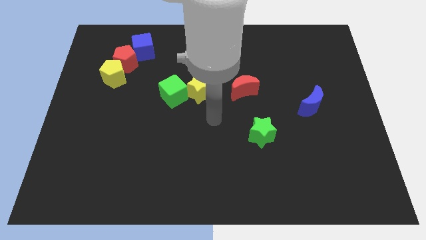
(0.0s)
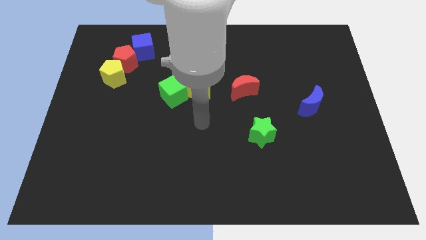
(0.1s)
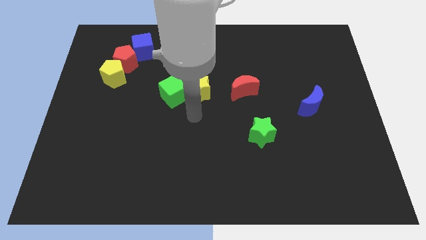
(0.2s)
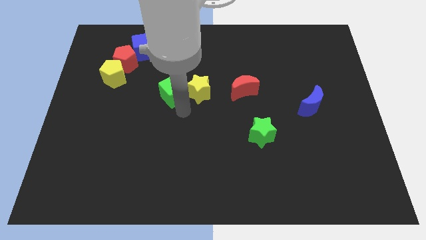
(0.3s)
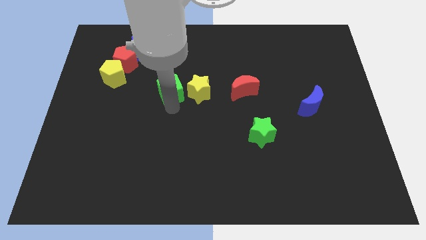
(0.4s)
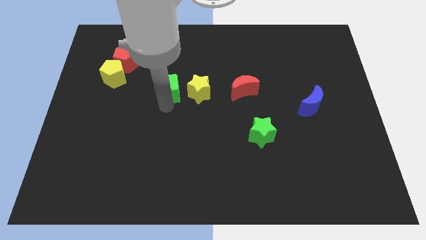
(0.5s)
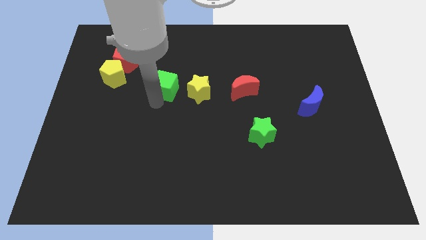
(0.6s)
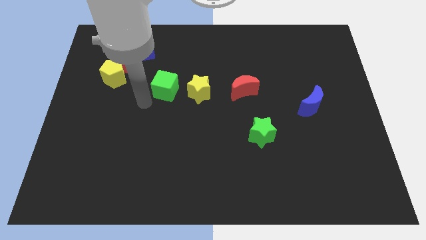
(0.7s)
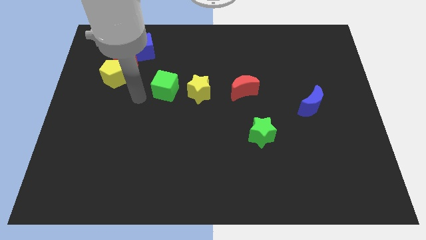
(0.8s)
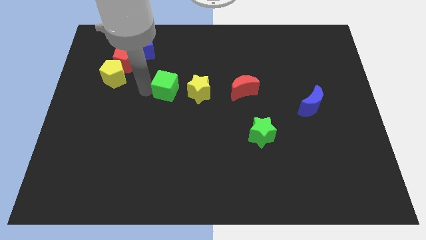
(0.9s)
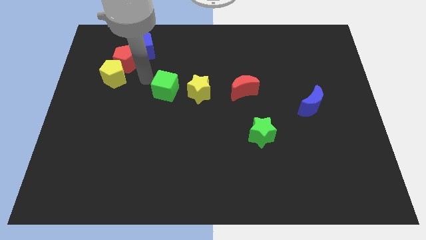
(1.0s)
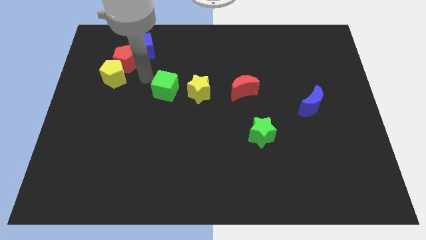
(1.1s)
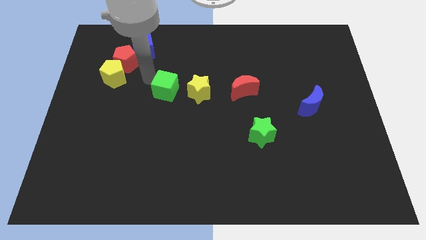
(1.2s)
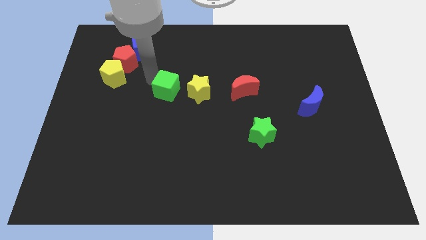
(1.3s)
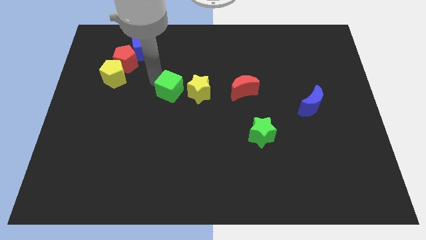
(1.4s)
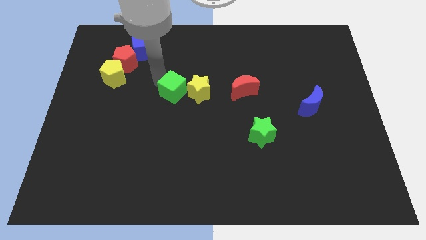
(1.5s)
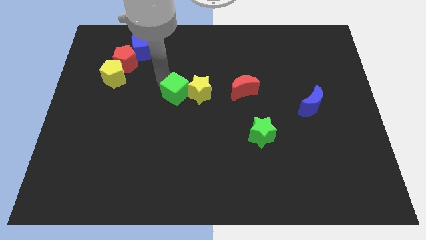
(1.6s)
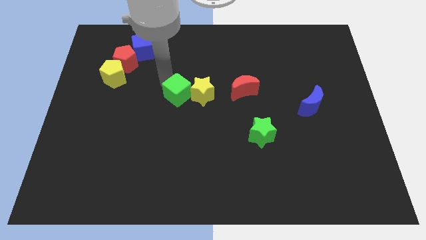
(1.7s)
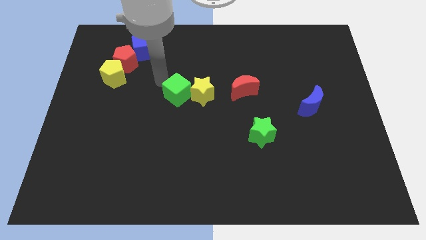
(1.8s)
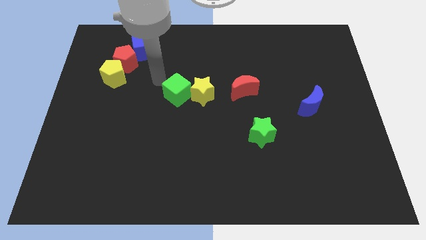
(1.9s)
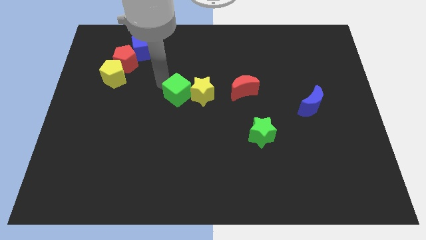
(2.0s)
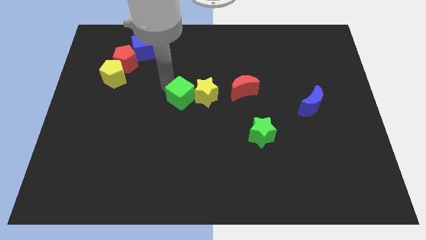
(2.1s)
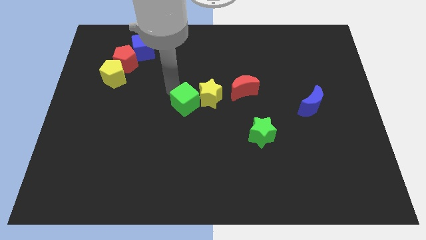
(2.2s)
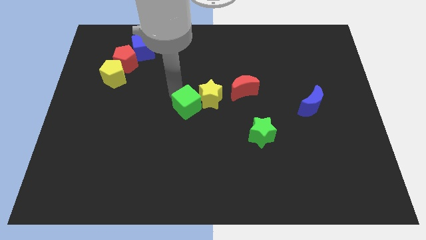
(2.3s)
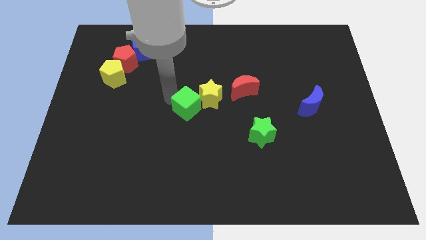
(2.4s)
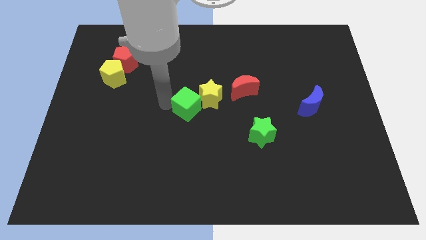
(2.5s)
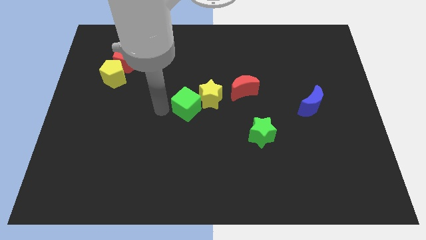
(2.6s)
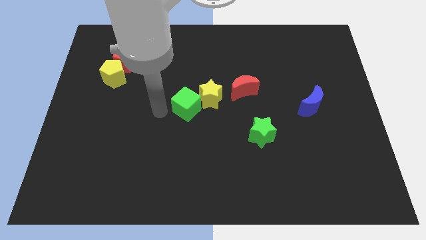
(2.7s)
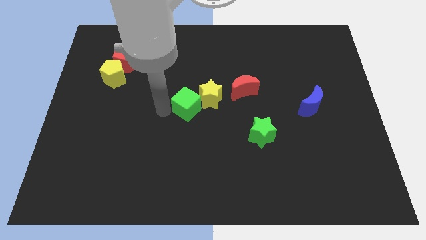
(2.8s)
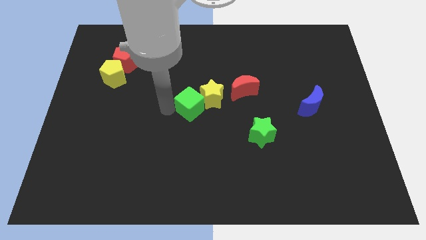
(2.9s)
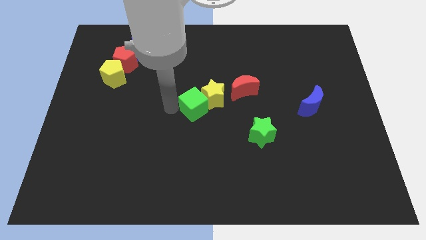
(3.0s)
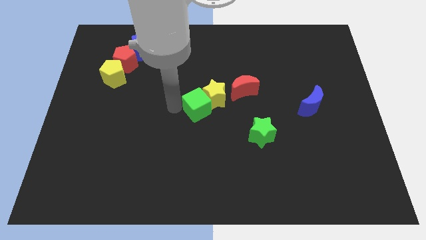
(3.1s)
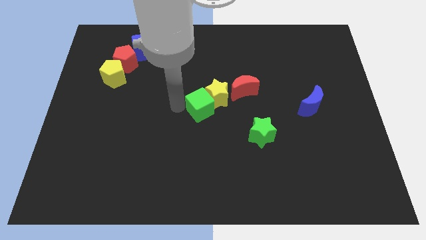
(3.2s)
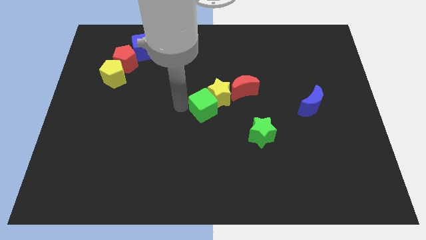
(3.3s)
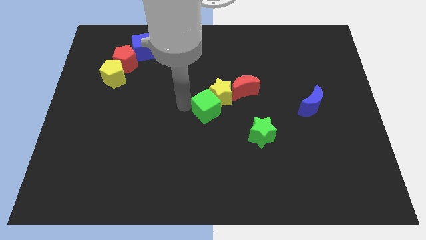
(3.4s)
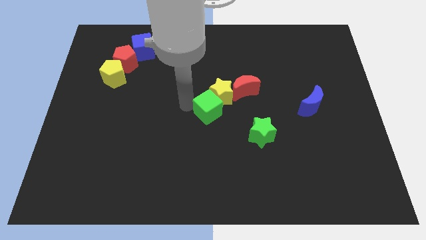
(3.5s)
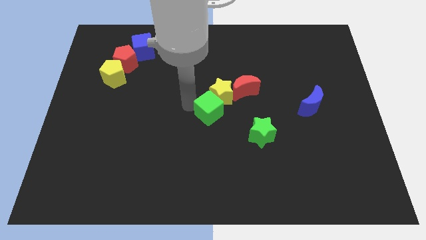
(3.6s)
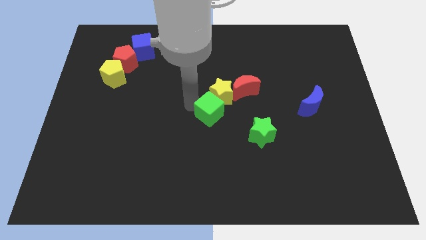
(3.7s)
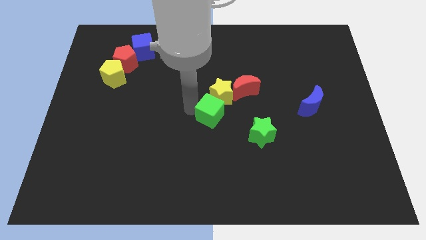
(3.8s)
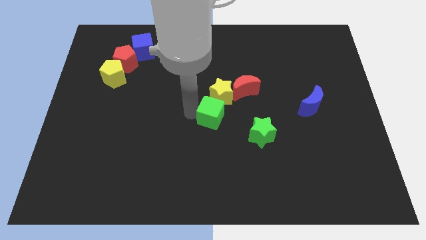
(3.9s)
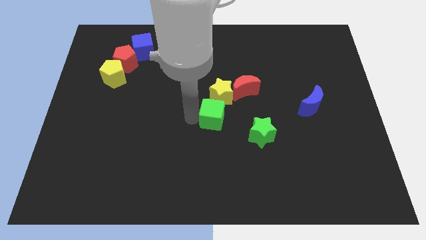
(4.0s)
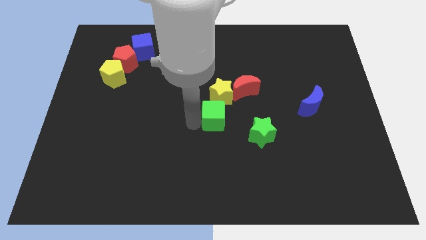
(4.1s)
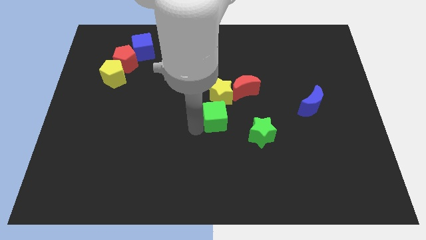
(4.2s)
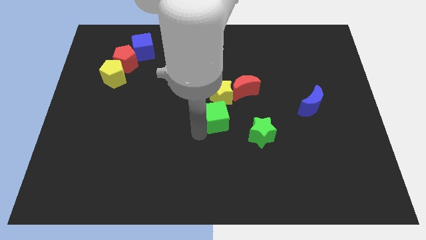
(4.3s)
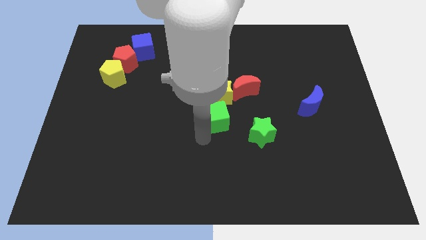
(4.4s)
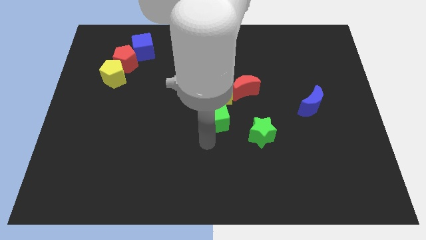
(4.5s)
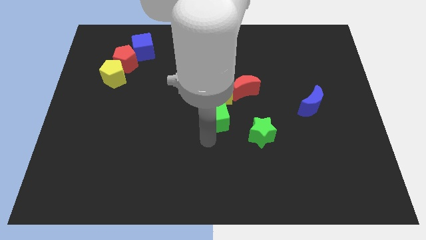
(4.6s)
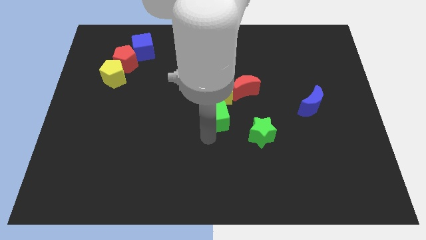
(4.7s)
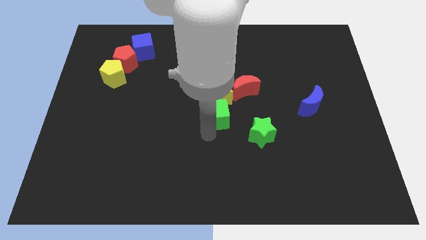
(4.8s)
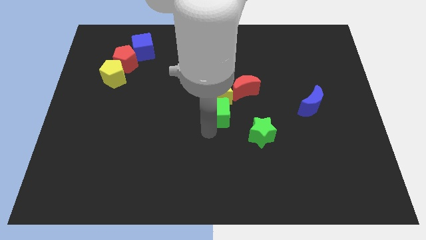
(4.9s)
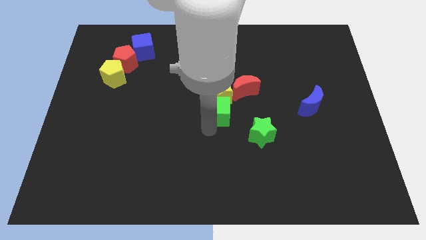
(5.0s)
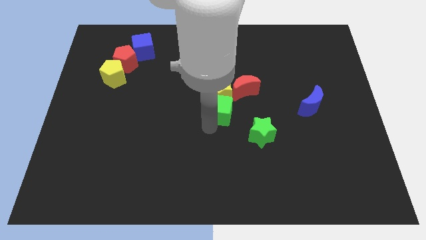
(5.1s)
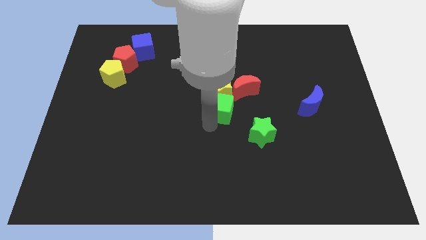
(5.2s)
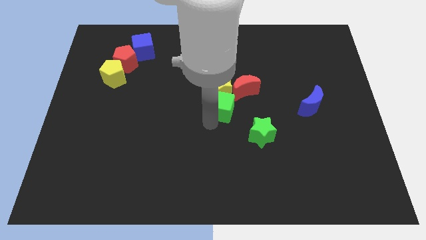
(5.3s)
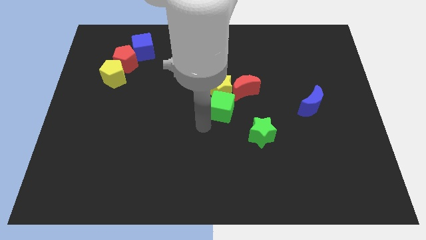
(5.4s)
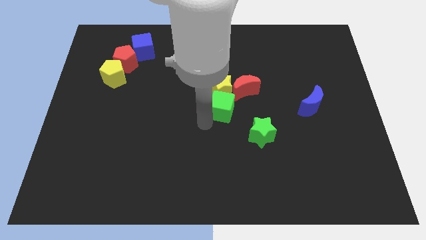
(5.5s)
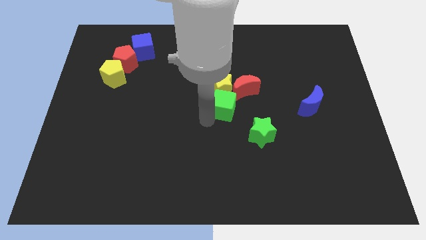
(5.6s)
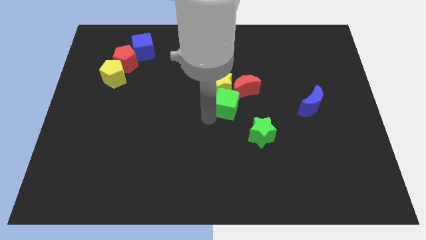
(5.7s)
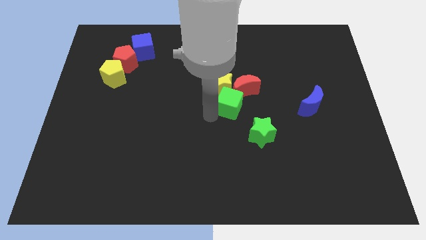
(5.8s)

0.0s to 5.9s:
push the green cube to the red moon

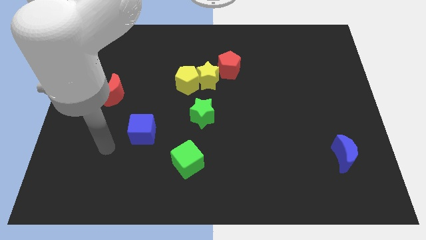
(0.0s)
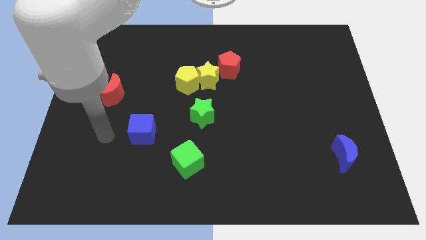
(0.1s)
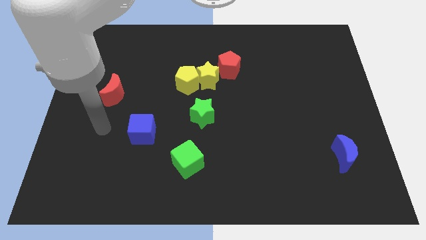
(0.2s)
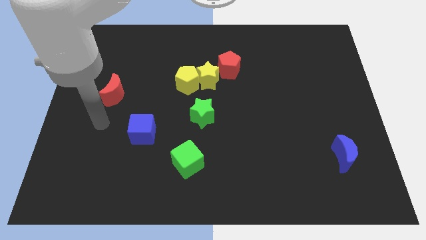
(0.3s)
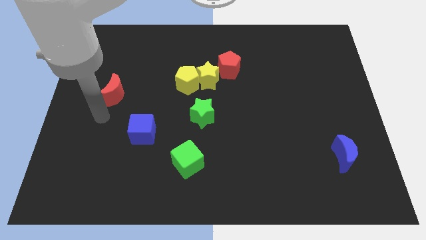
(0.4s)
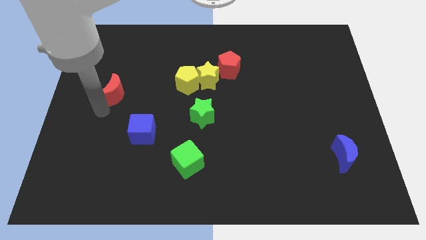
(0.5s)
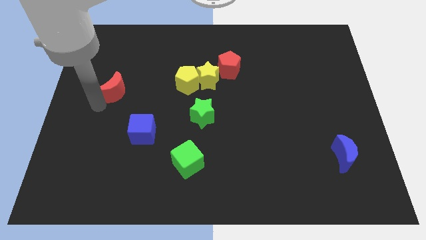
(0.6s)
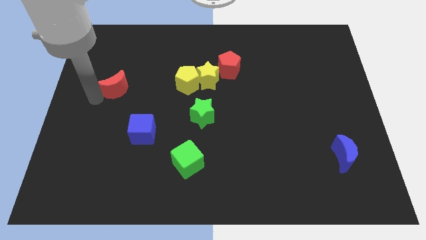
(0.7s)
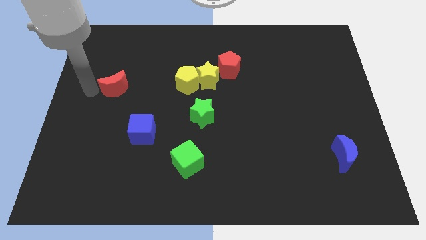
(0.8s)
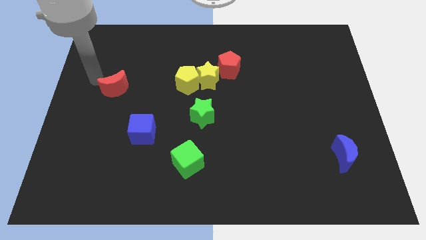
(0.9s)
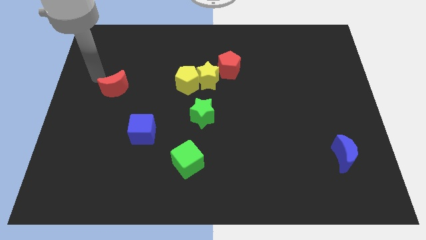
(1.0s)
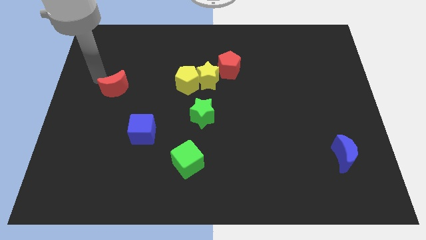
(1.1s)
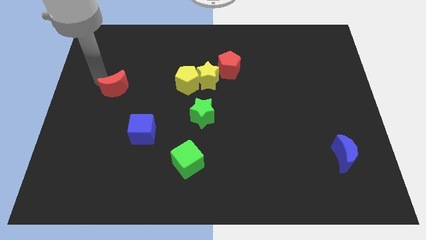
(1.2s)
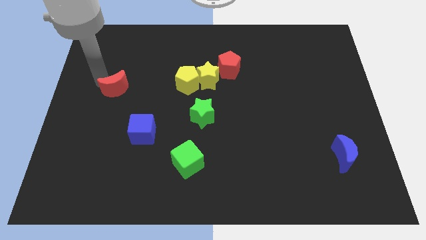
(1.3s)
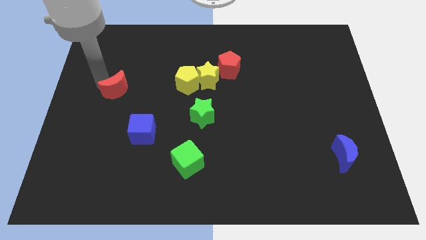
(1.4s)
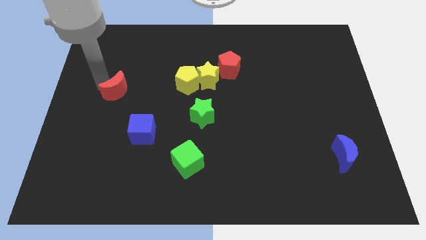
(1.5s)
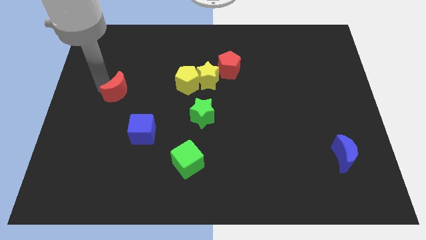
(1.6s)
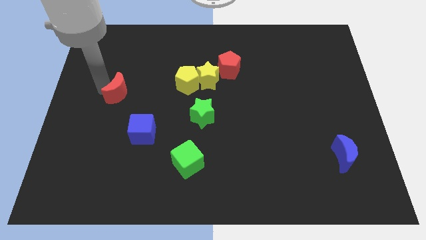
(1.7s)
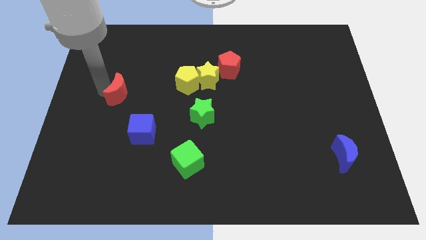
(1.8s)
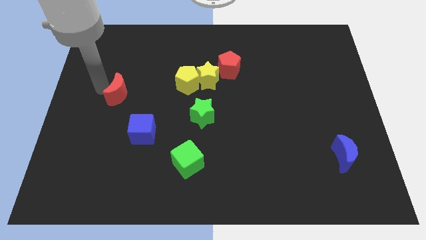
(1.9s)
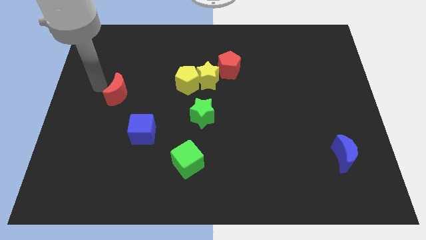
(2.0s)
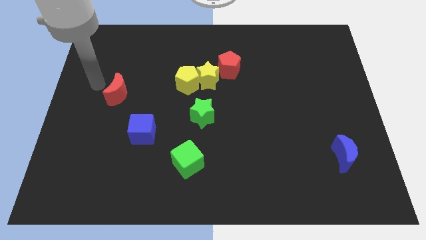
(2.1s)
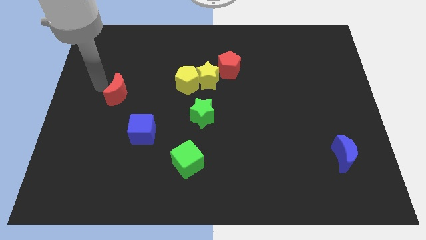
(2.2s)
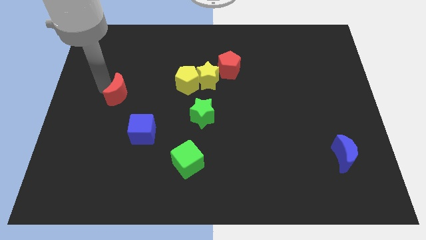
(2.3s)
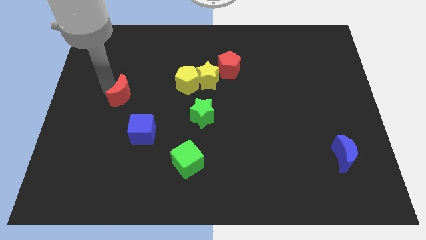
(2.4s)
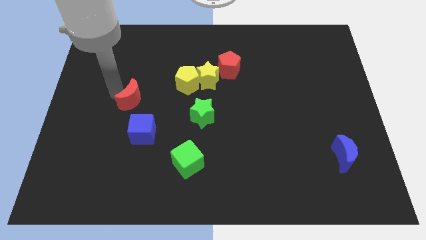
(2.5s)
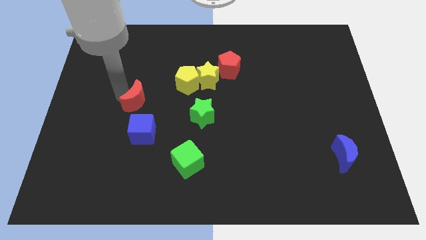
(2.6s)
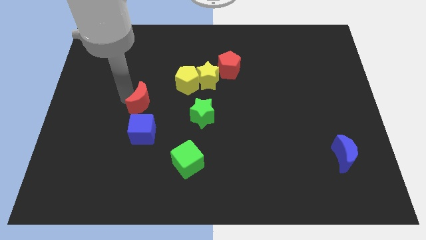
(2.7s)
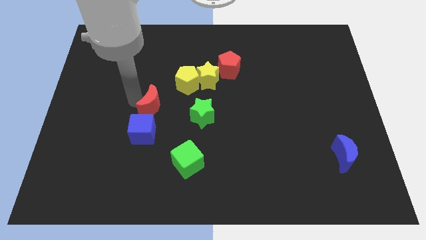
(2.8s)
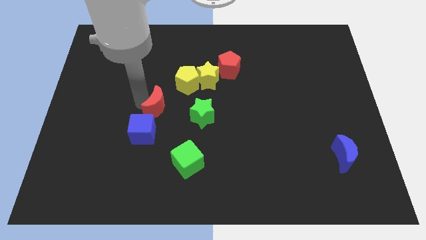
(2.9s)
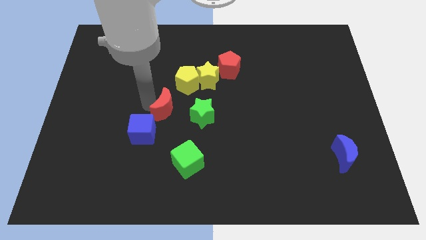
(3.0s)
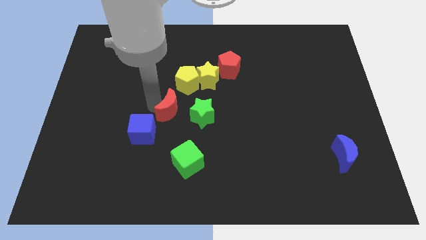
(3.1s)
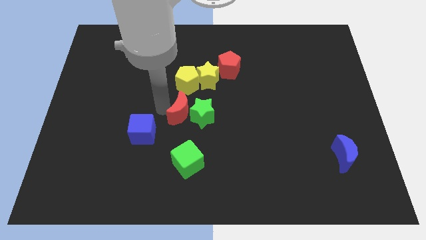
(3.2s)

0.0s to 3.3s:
move the red moon next to the green star
